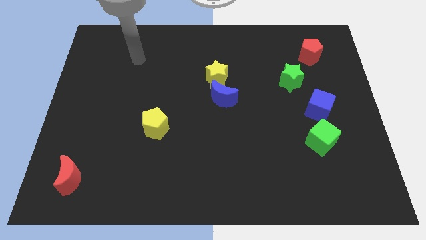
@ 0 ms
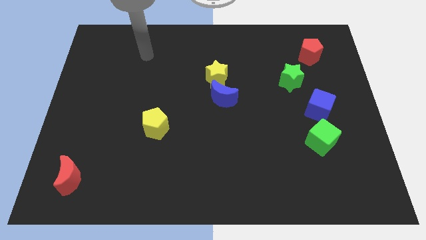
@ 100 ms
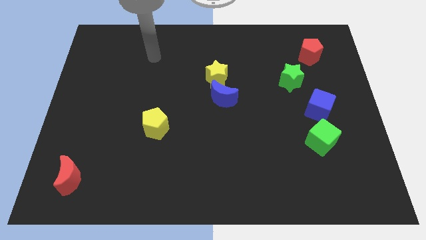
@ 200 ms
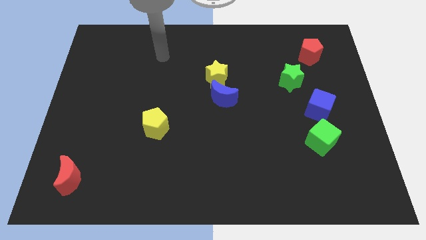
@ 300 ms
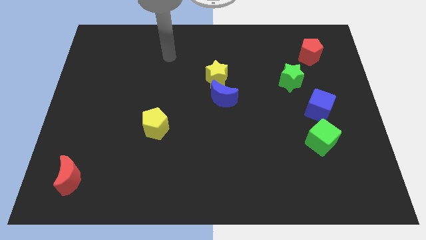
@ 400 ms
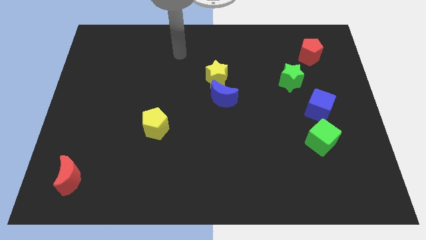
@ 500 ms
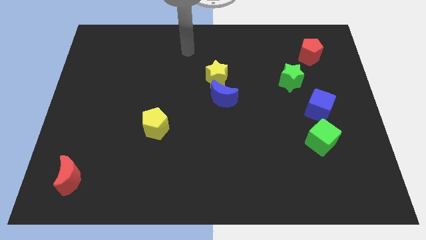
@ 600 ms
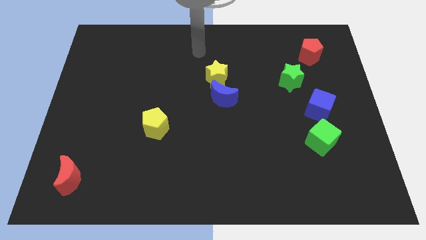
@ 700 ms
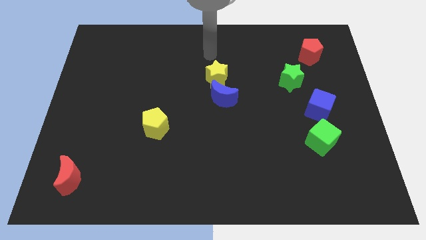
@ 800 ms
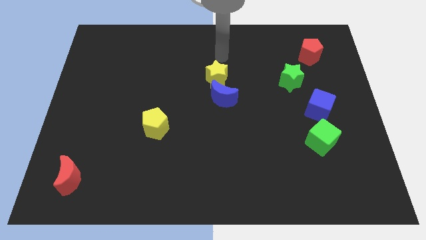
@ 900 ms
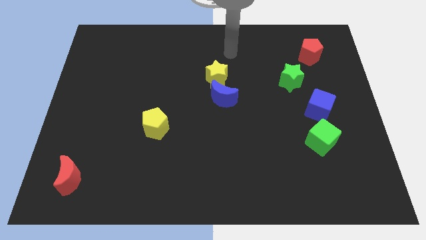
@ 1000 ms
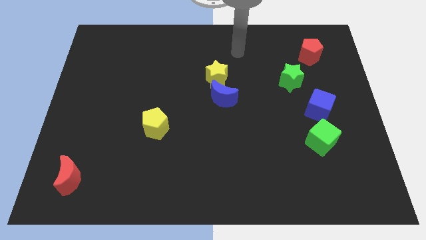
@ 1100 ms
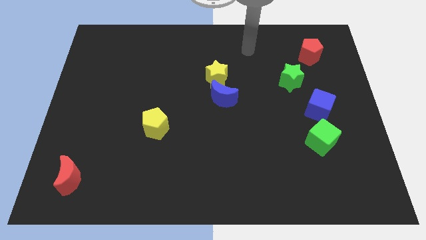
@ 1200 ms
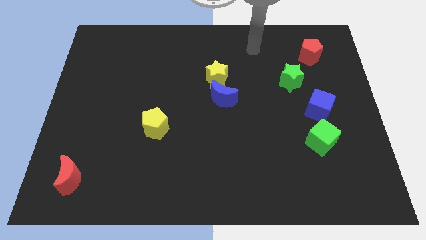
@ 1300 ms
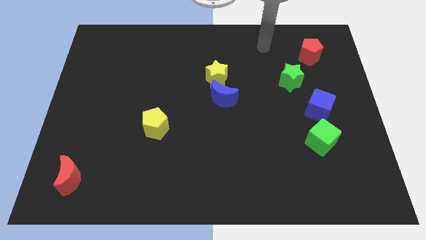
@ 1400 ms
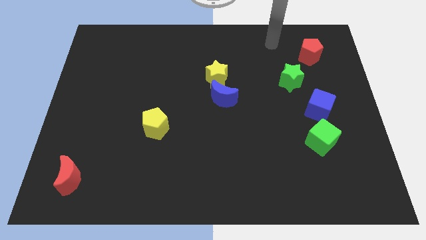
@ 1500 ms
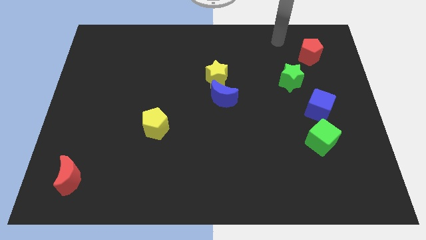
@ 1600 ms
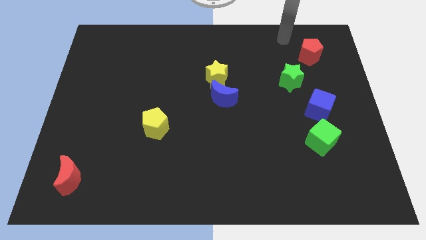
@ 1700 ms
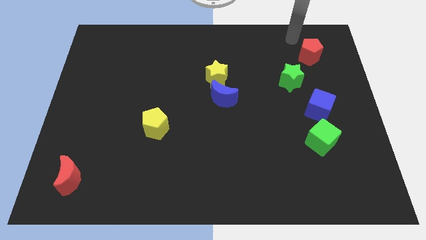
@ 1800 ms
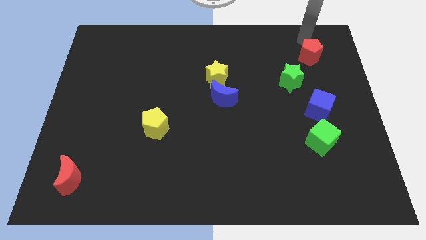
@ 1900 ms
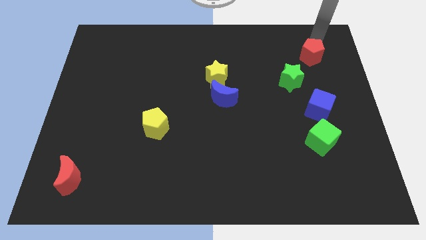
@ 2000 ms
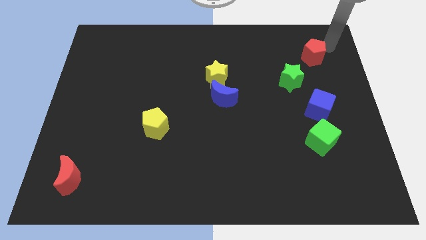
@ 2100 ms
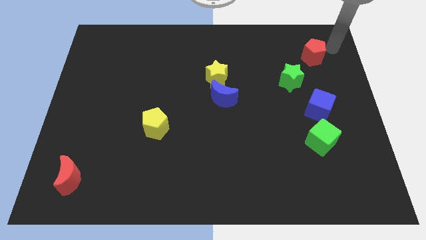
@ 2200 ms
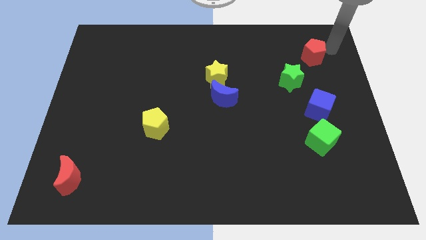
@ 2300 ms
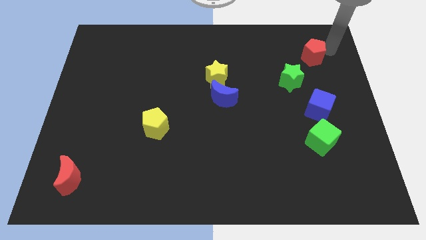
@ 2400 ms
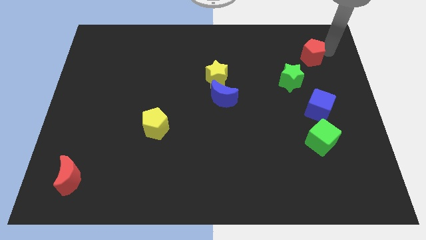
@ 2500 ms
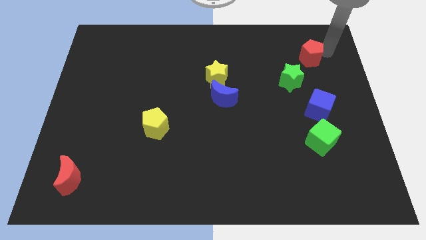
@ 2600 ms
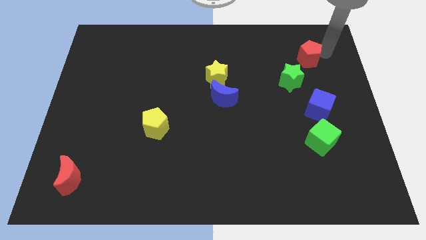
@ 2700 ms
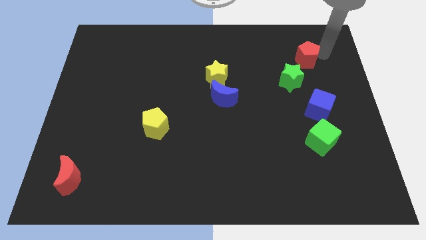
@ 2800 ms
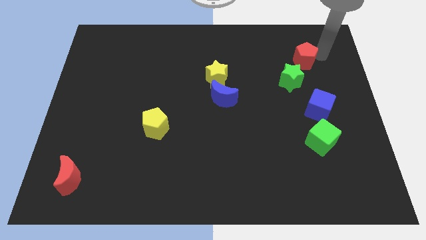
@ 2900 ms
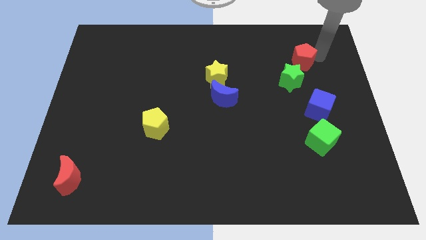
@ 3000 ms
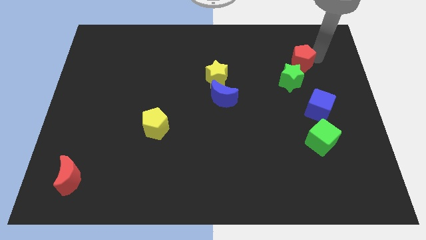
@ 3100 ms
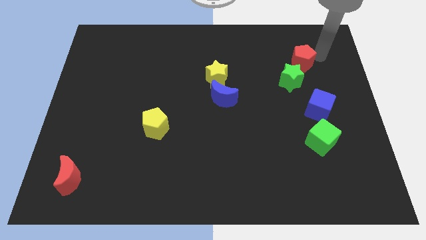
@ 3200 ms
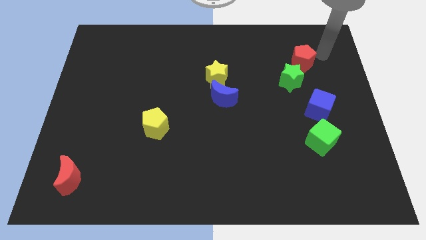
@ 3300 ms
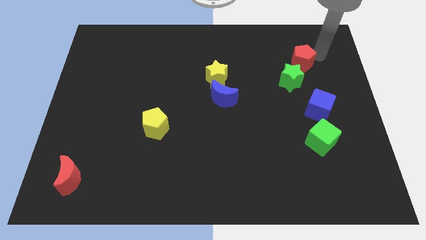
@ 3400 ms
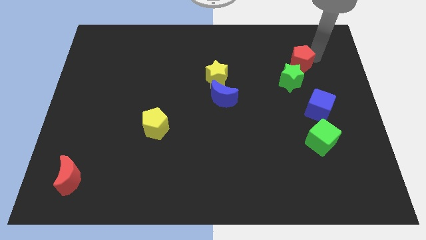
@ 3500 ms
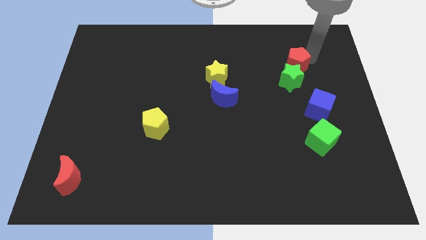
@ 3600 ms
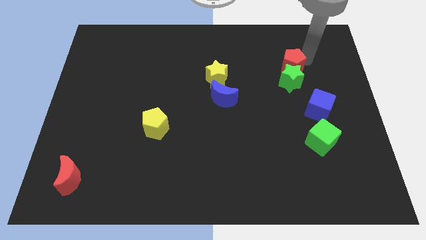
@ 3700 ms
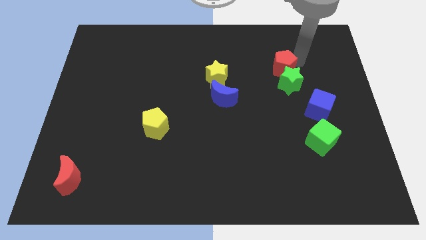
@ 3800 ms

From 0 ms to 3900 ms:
slide the red pentagon down and to the left diagonally a bit

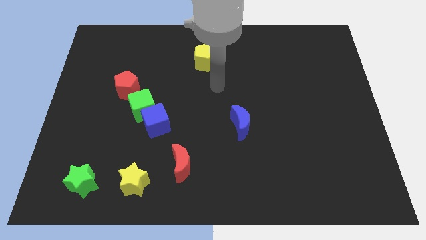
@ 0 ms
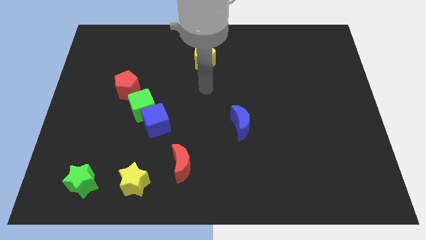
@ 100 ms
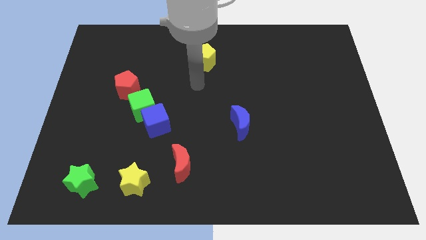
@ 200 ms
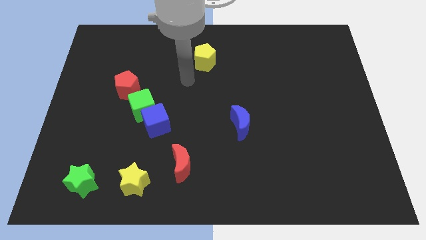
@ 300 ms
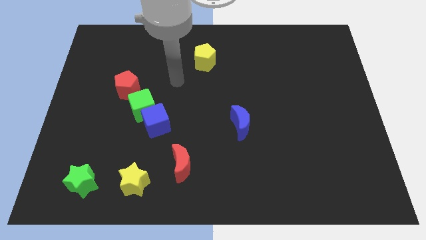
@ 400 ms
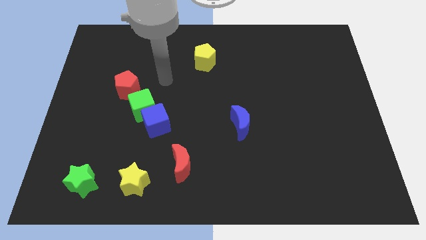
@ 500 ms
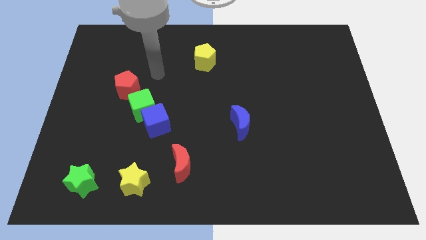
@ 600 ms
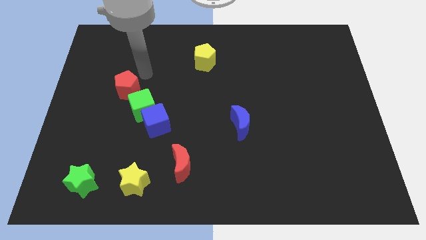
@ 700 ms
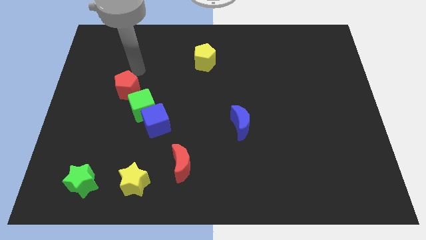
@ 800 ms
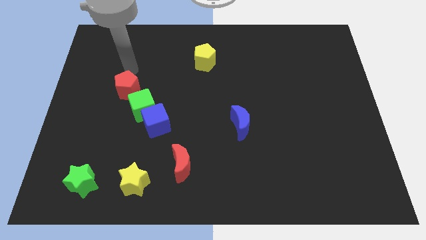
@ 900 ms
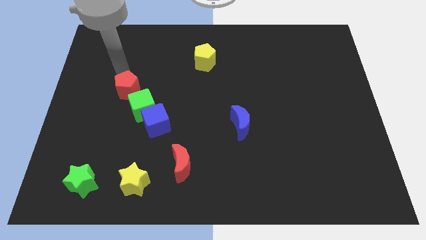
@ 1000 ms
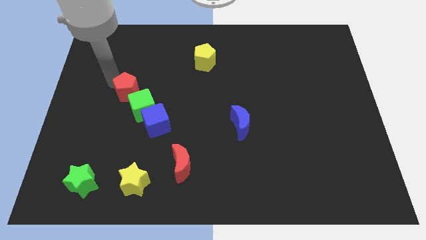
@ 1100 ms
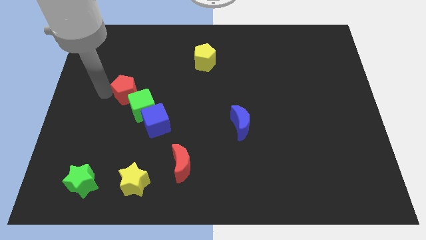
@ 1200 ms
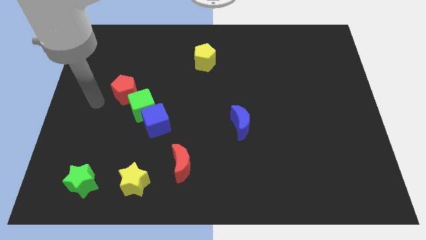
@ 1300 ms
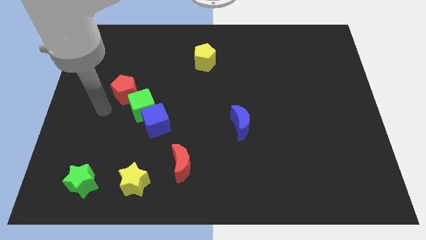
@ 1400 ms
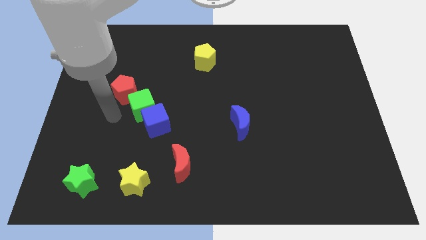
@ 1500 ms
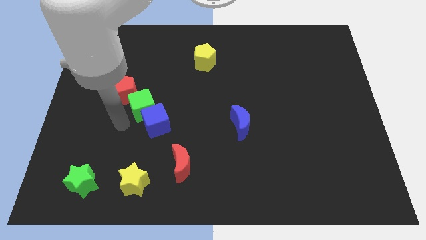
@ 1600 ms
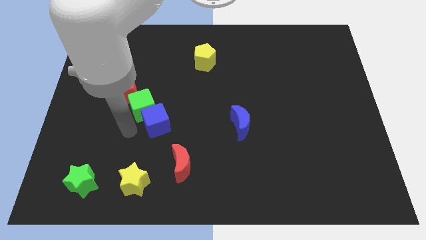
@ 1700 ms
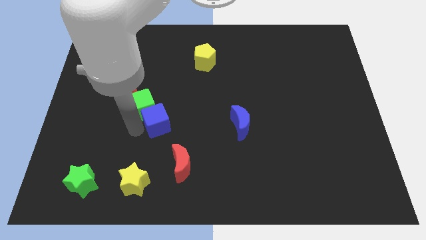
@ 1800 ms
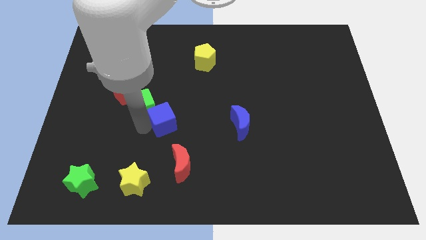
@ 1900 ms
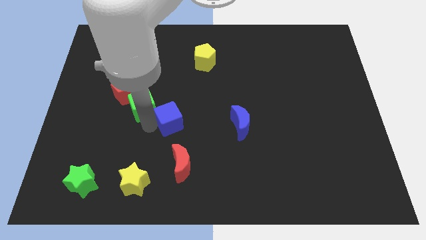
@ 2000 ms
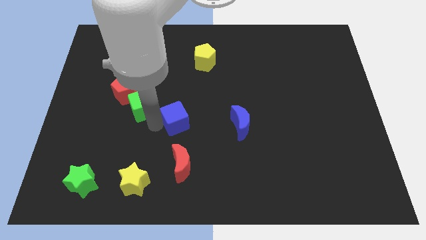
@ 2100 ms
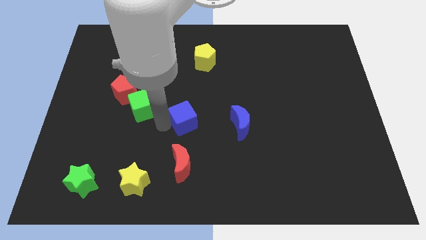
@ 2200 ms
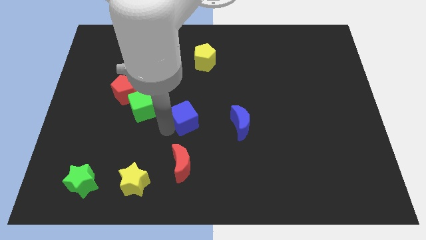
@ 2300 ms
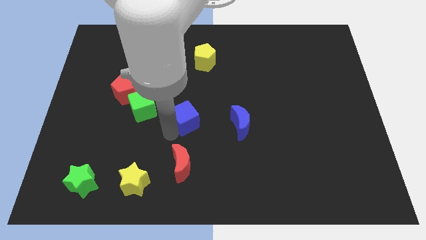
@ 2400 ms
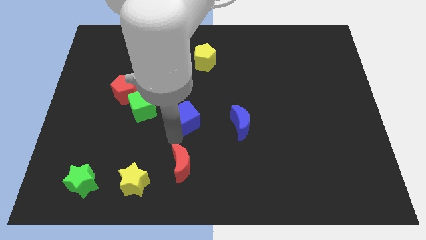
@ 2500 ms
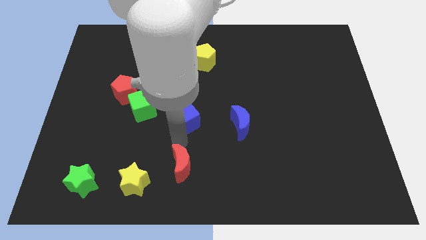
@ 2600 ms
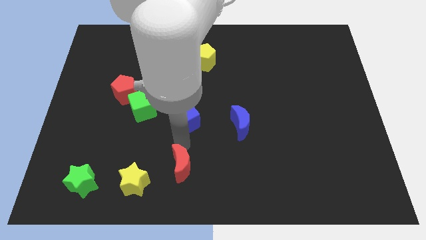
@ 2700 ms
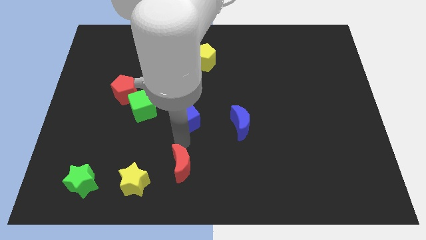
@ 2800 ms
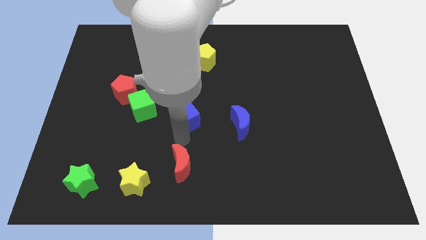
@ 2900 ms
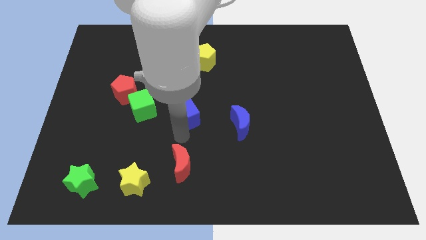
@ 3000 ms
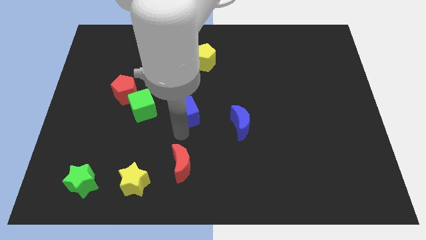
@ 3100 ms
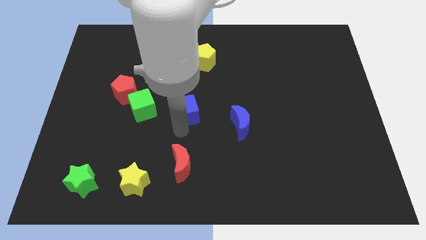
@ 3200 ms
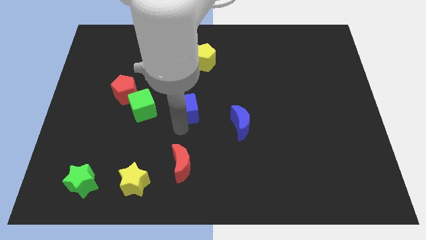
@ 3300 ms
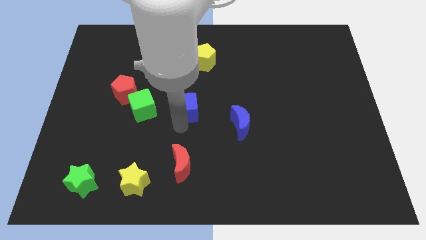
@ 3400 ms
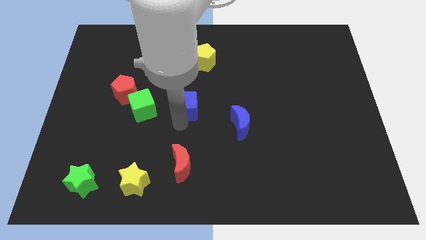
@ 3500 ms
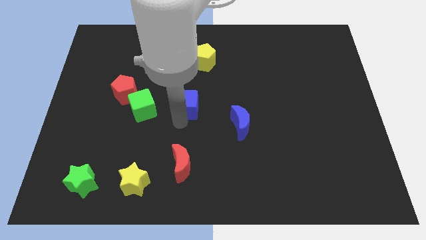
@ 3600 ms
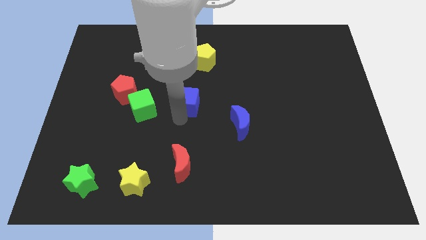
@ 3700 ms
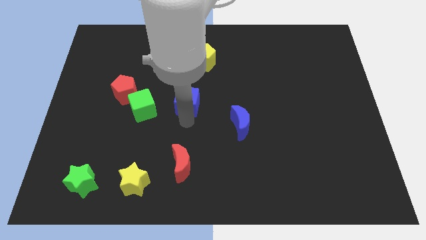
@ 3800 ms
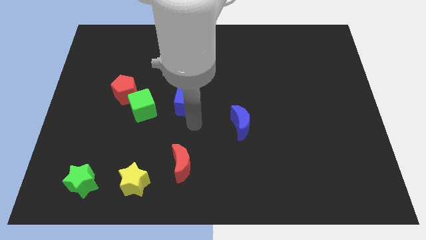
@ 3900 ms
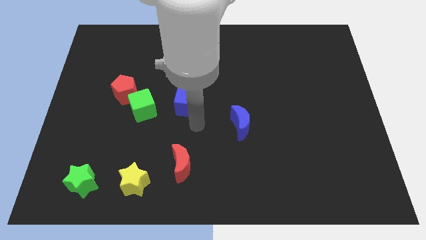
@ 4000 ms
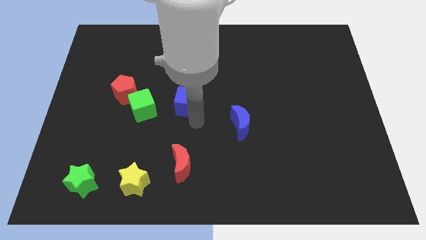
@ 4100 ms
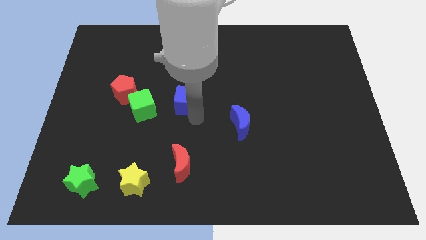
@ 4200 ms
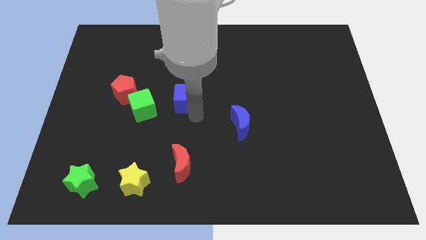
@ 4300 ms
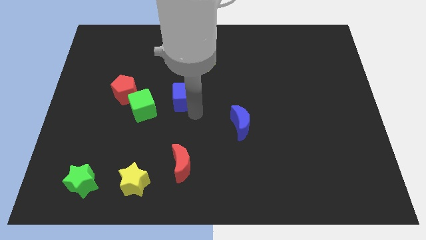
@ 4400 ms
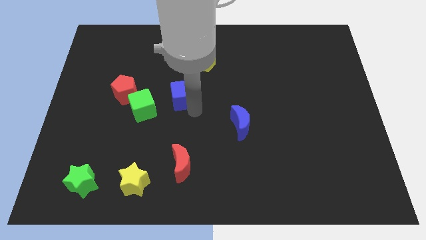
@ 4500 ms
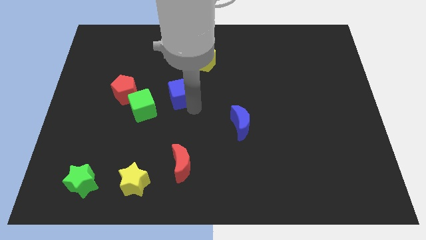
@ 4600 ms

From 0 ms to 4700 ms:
slightly move the blue cube up
